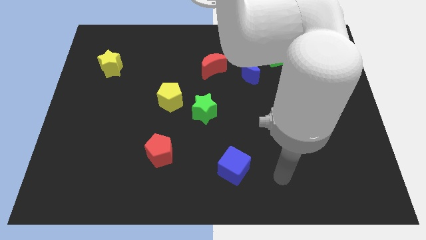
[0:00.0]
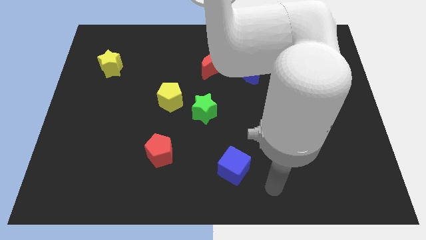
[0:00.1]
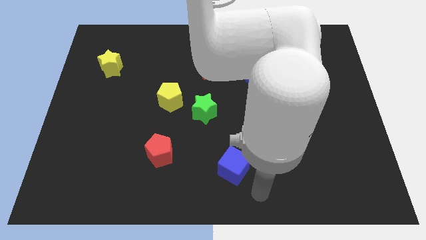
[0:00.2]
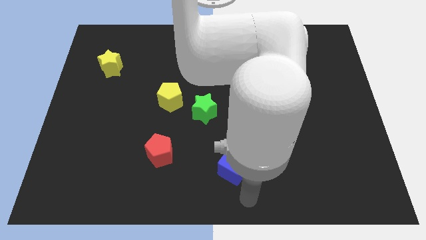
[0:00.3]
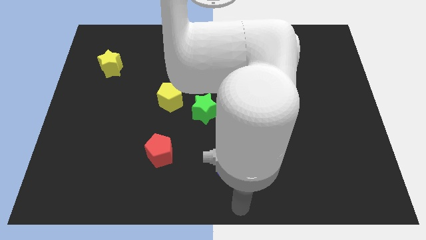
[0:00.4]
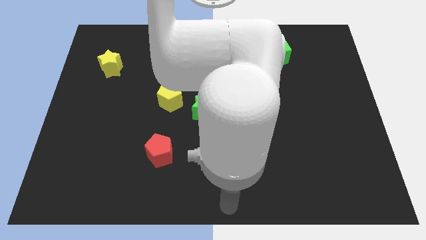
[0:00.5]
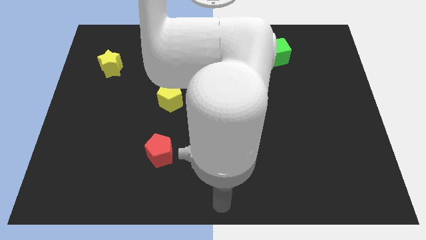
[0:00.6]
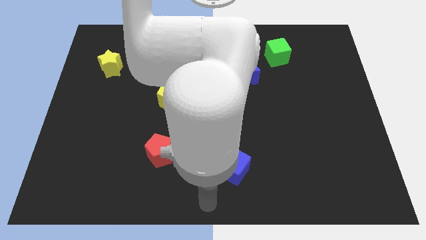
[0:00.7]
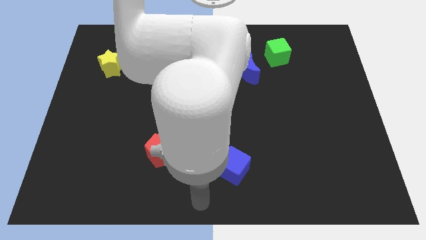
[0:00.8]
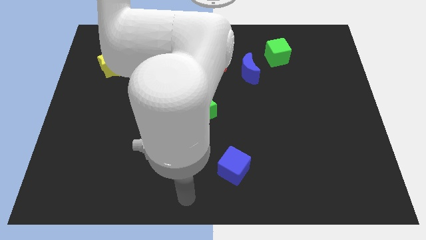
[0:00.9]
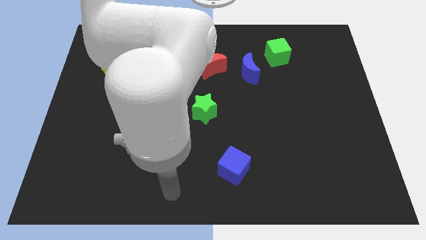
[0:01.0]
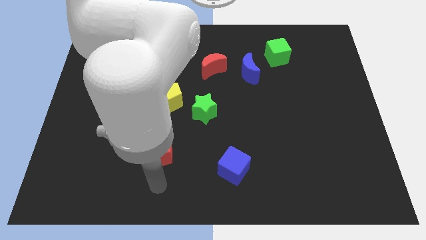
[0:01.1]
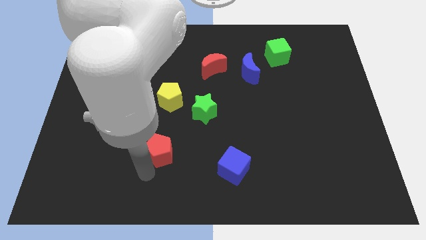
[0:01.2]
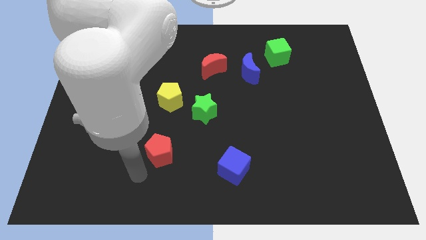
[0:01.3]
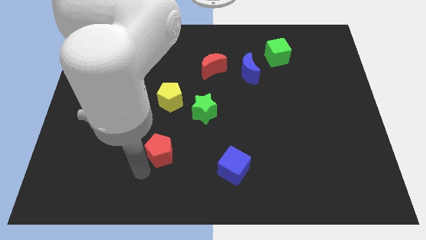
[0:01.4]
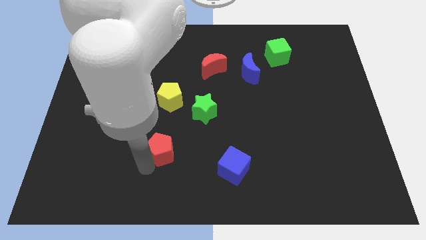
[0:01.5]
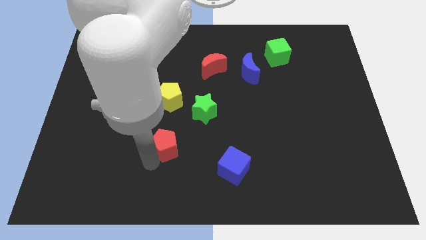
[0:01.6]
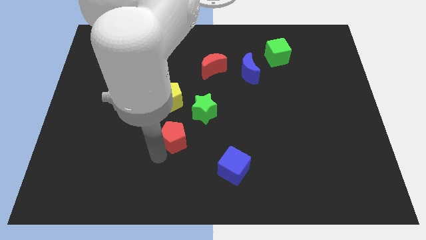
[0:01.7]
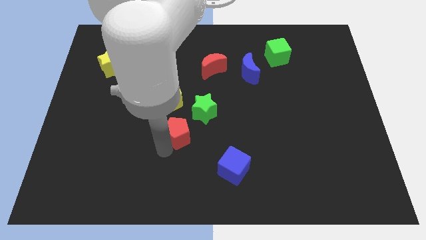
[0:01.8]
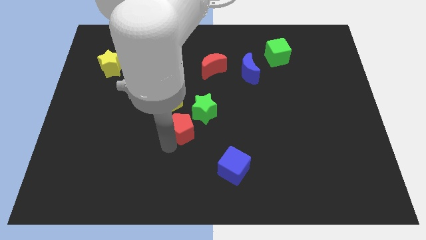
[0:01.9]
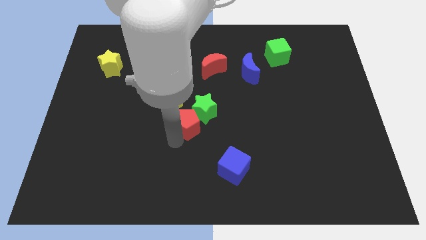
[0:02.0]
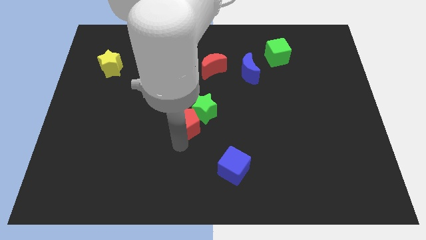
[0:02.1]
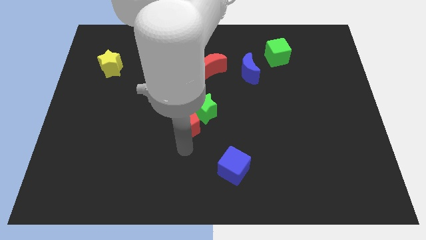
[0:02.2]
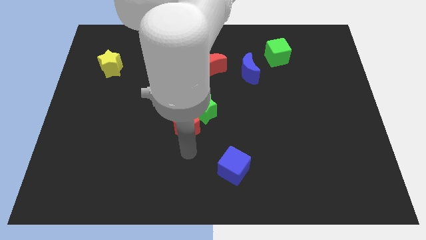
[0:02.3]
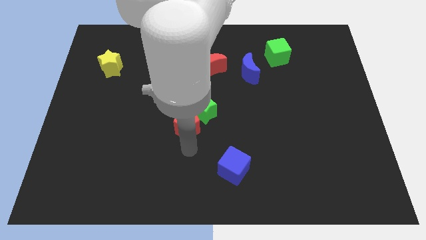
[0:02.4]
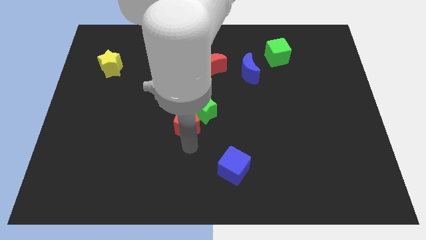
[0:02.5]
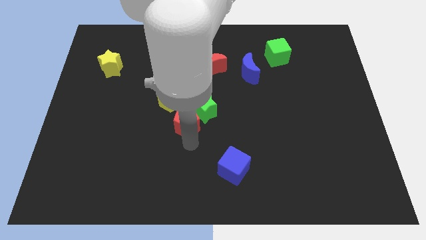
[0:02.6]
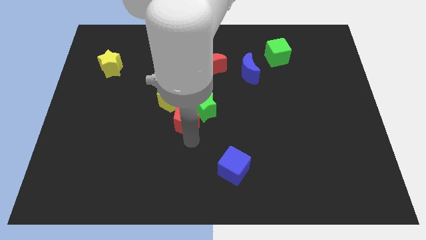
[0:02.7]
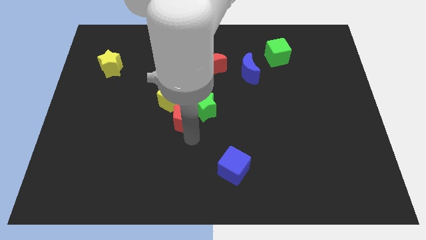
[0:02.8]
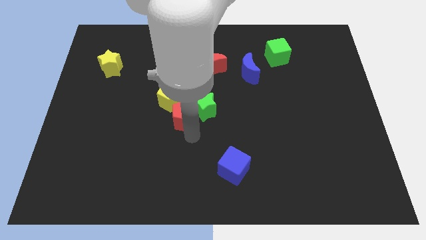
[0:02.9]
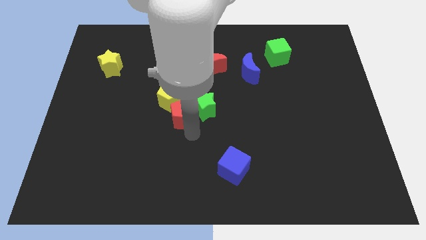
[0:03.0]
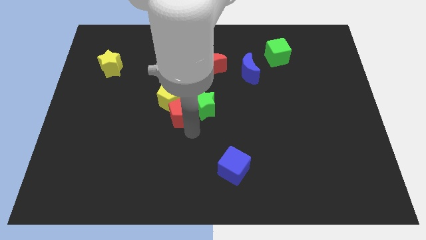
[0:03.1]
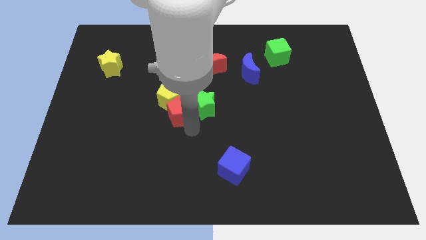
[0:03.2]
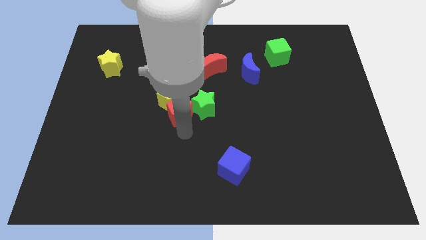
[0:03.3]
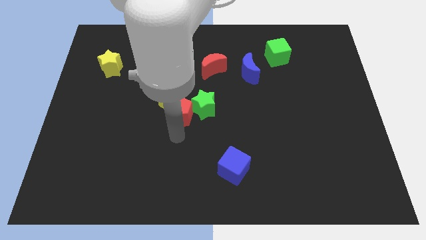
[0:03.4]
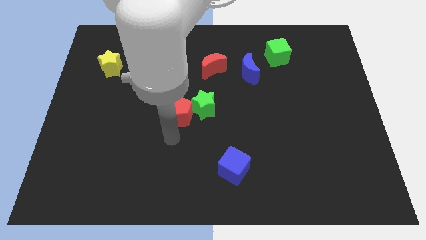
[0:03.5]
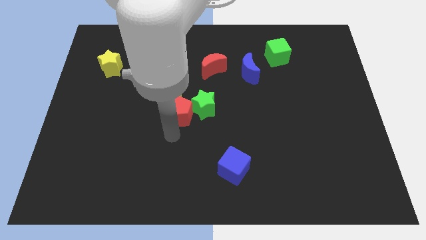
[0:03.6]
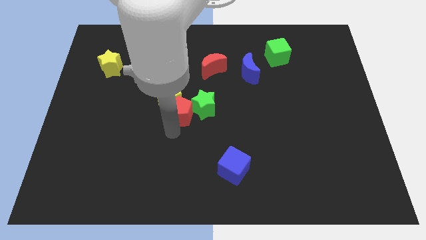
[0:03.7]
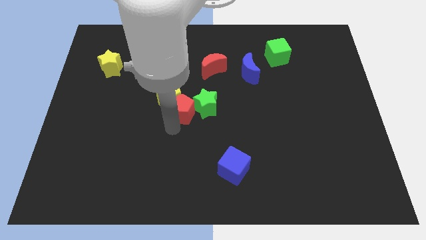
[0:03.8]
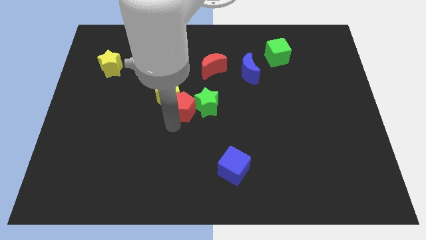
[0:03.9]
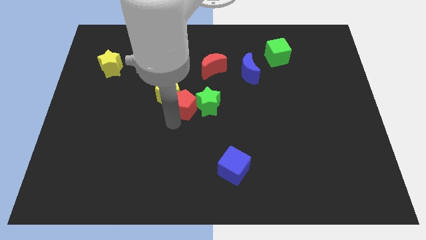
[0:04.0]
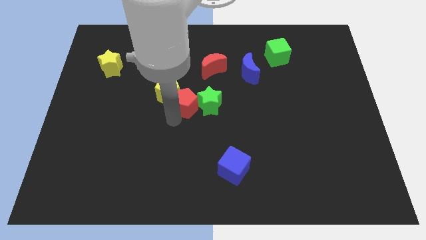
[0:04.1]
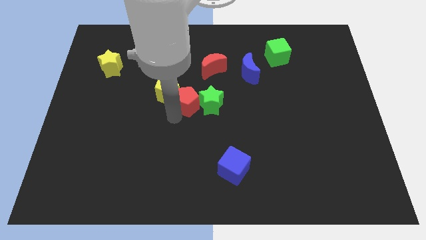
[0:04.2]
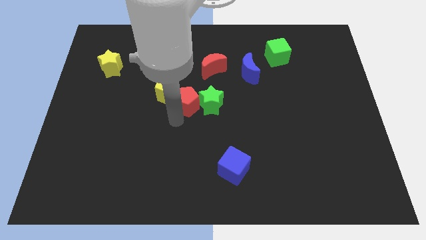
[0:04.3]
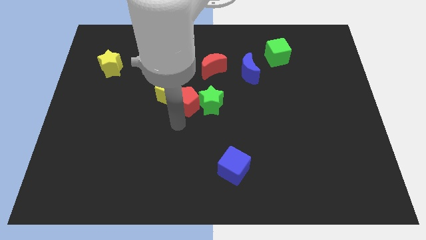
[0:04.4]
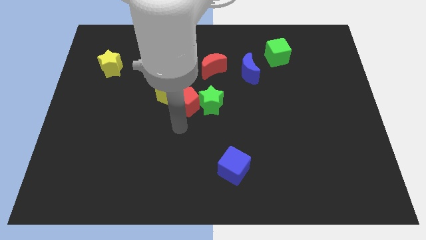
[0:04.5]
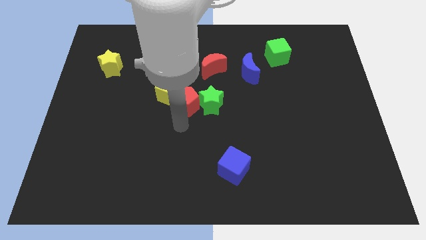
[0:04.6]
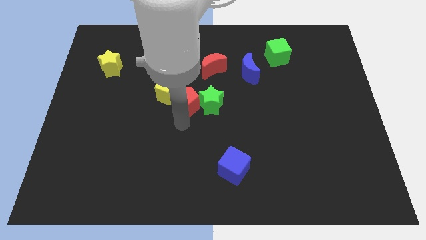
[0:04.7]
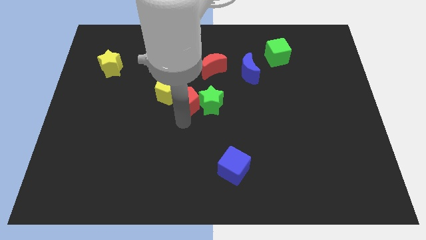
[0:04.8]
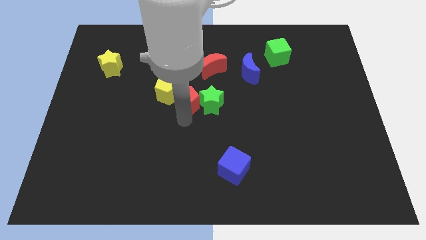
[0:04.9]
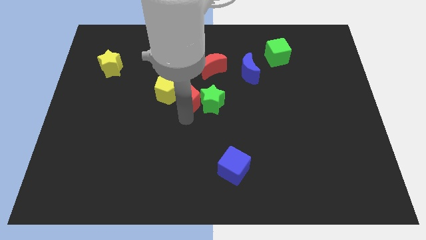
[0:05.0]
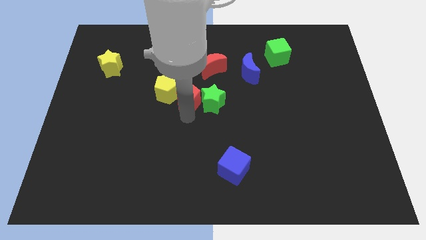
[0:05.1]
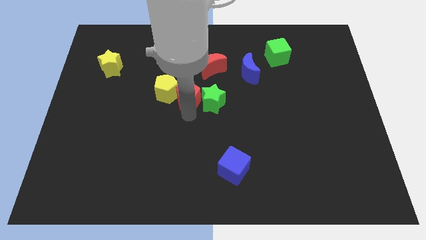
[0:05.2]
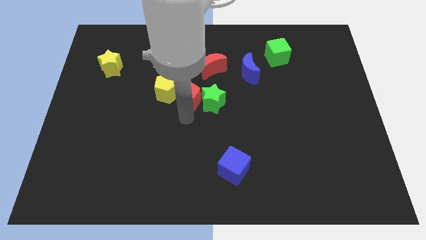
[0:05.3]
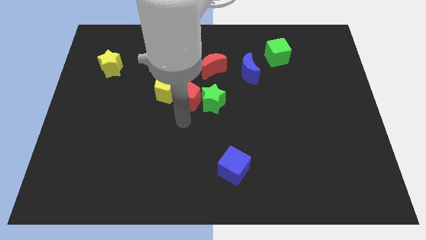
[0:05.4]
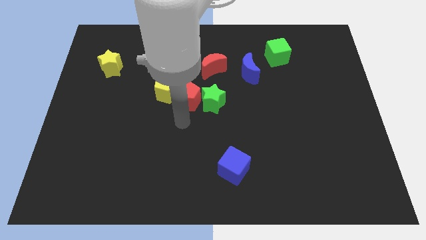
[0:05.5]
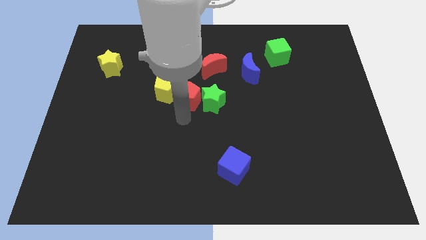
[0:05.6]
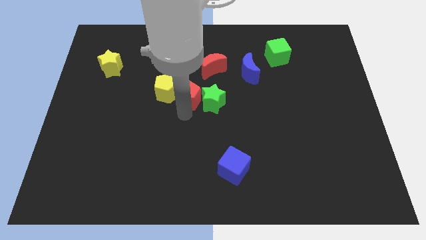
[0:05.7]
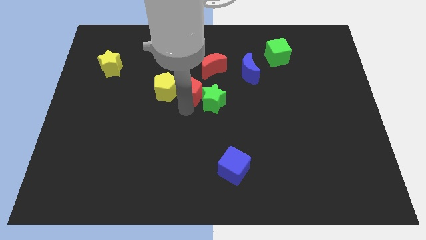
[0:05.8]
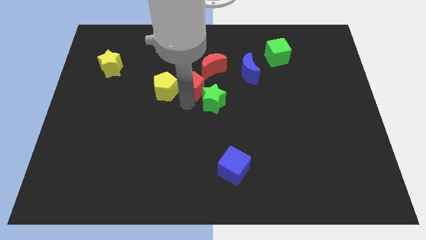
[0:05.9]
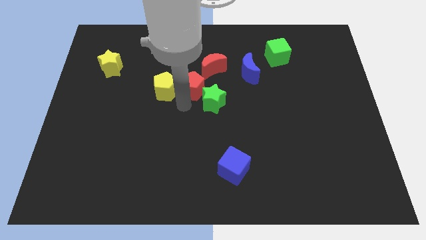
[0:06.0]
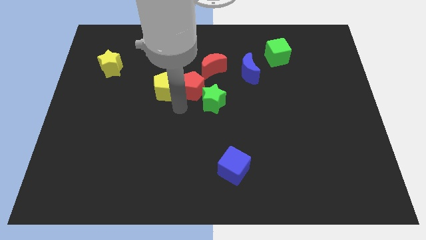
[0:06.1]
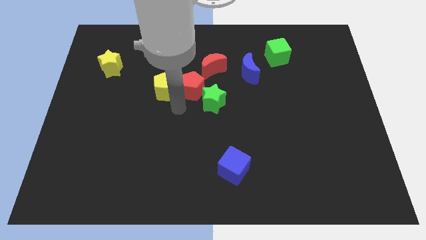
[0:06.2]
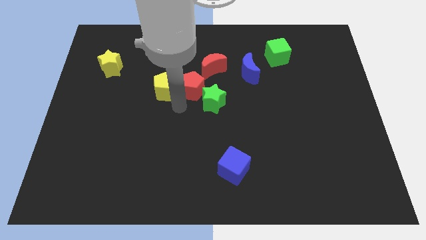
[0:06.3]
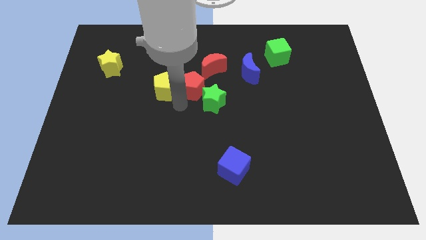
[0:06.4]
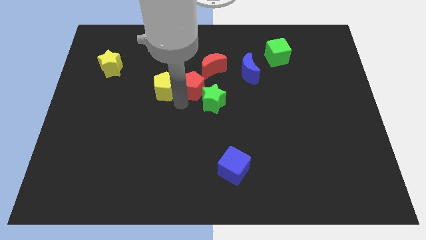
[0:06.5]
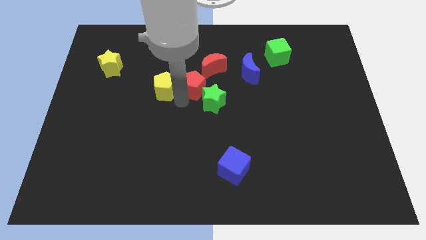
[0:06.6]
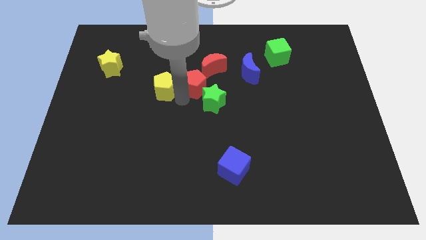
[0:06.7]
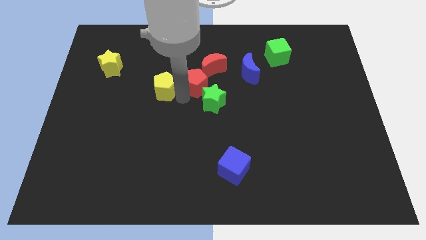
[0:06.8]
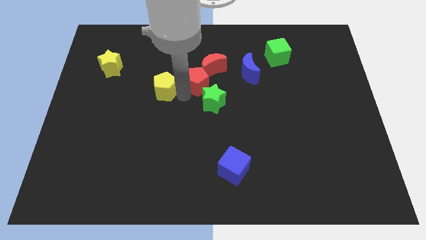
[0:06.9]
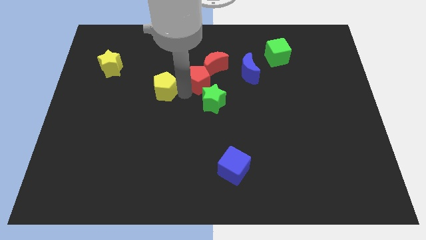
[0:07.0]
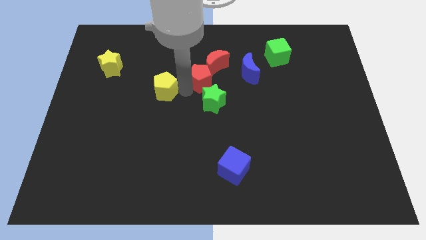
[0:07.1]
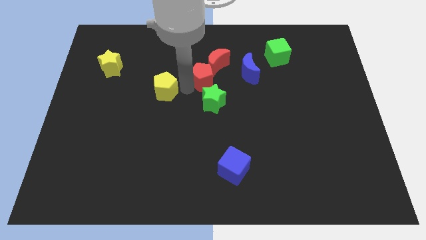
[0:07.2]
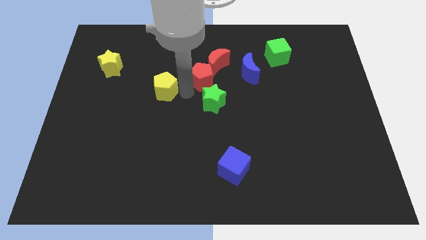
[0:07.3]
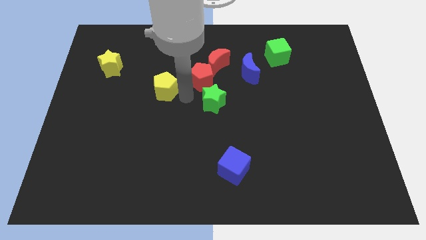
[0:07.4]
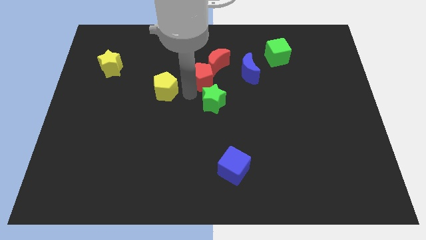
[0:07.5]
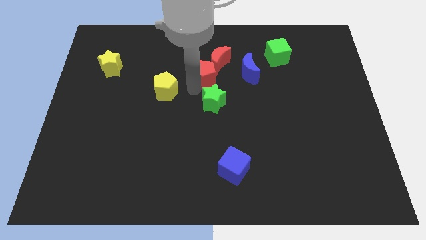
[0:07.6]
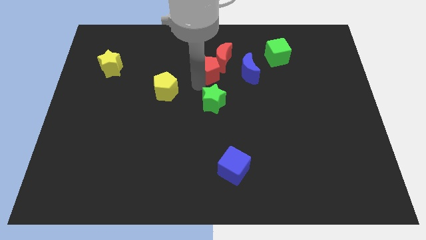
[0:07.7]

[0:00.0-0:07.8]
move the red pentagon next to the red moon

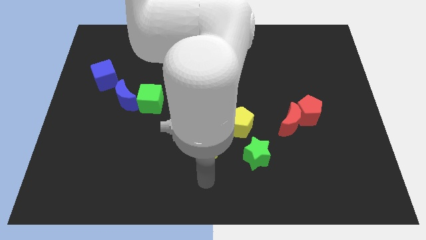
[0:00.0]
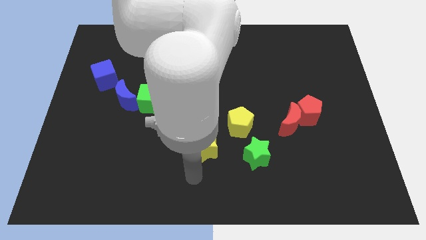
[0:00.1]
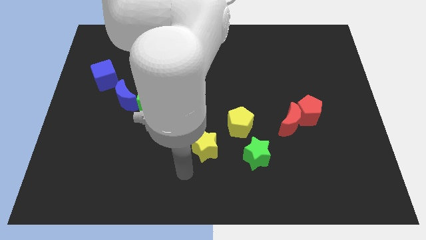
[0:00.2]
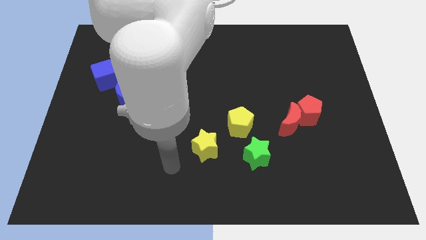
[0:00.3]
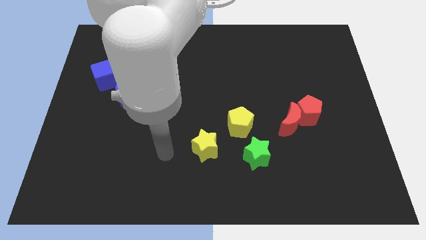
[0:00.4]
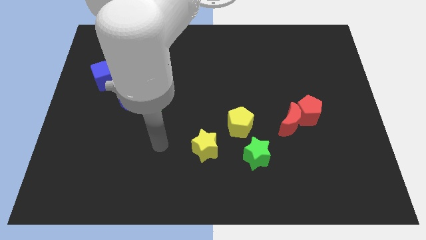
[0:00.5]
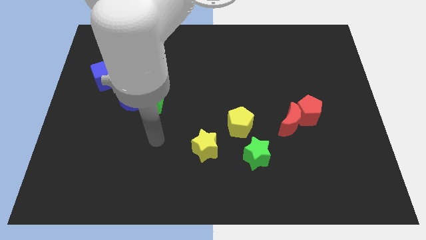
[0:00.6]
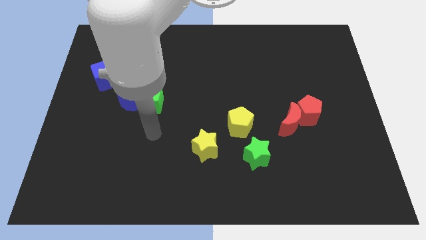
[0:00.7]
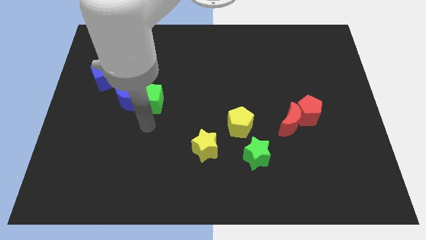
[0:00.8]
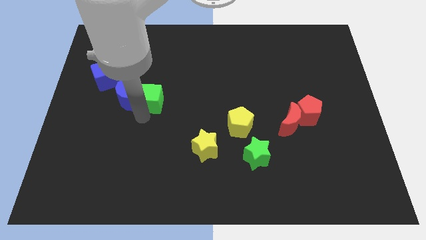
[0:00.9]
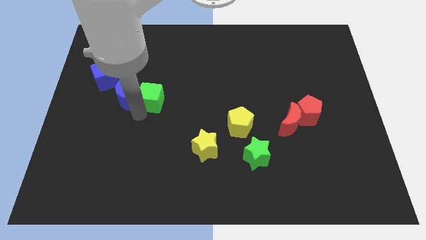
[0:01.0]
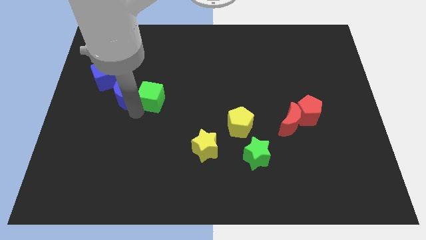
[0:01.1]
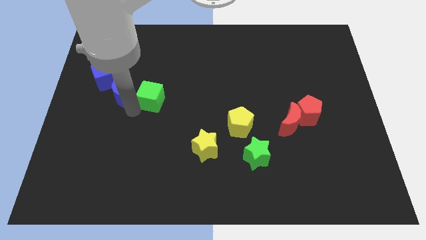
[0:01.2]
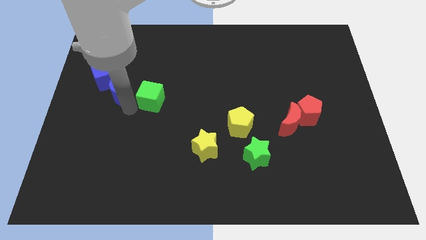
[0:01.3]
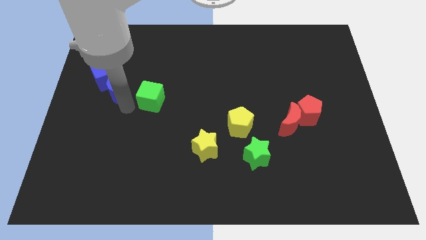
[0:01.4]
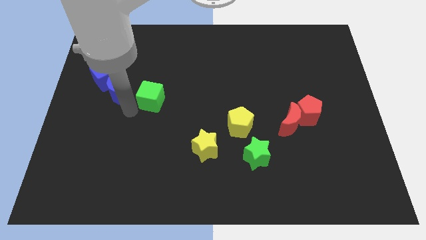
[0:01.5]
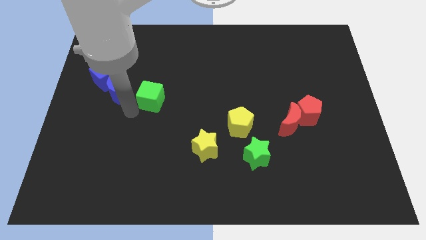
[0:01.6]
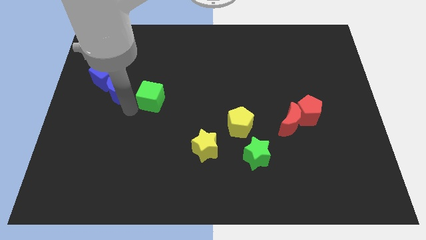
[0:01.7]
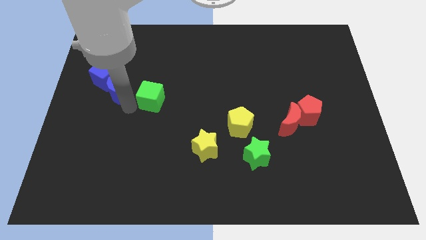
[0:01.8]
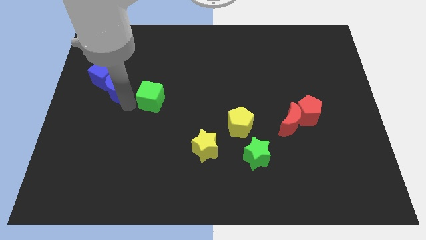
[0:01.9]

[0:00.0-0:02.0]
move the blue moon to the blue cube
